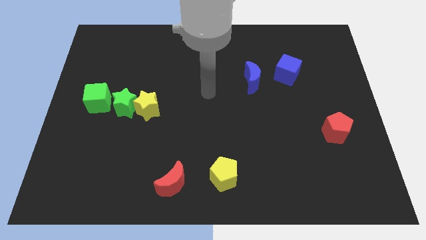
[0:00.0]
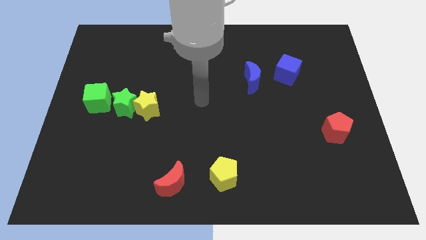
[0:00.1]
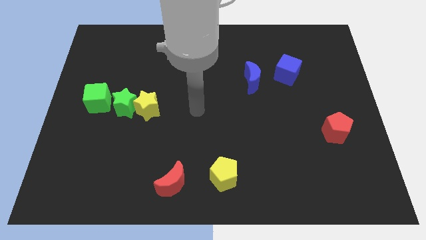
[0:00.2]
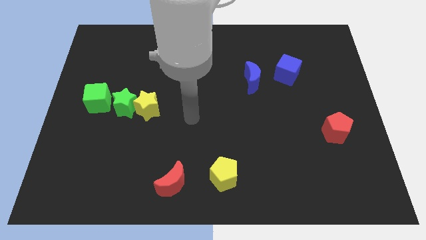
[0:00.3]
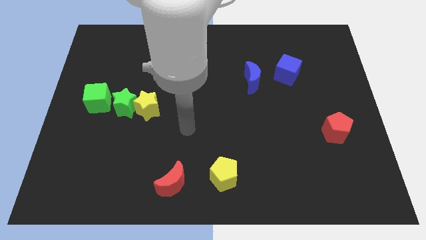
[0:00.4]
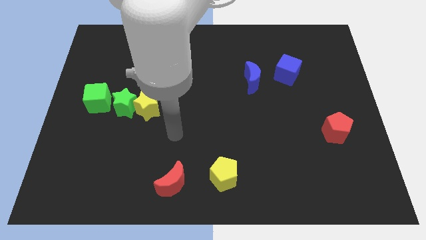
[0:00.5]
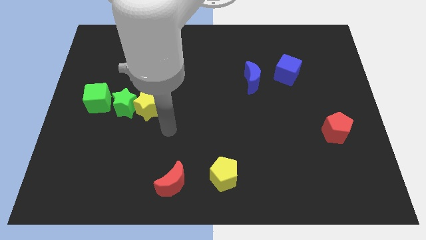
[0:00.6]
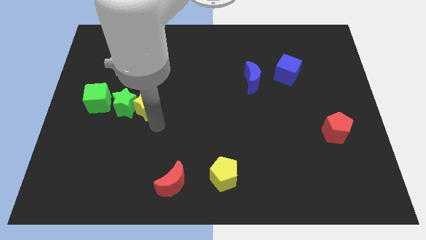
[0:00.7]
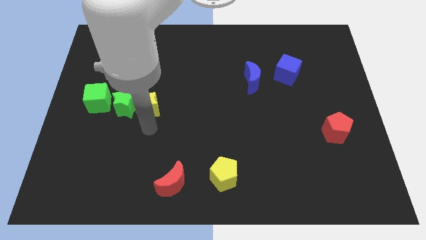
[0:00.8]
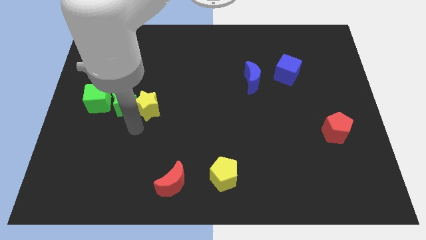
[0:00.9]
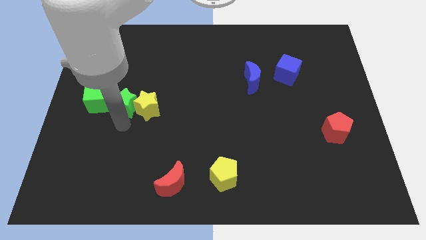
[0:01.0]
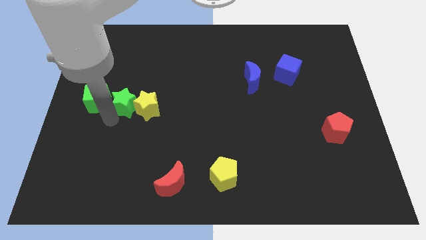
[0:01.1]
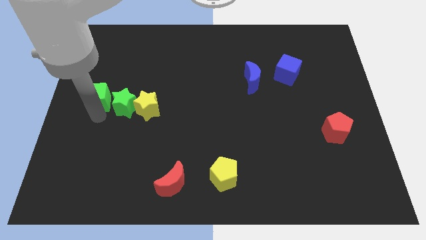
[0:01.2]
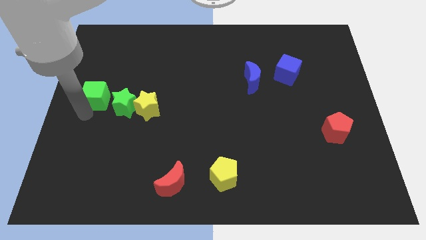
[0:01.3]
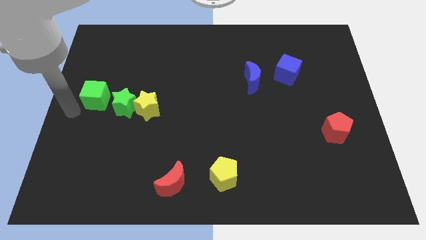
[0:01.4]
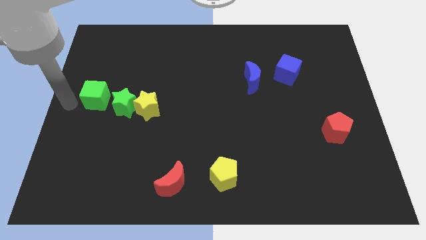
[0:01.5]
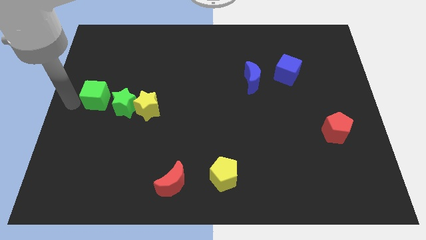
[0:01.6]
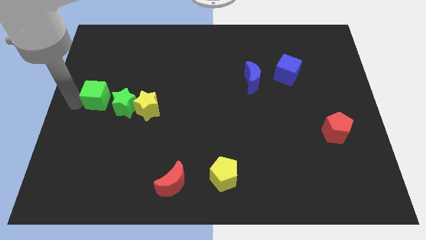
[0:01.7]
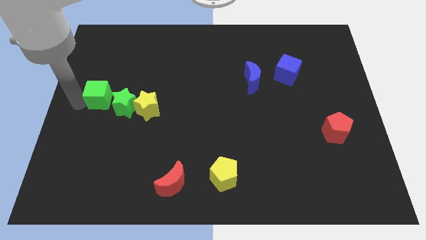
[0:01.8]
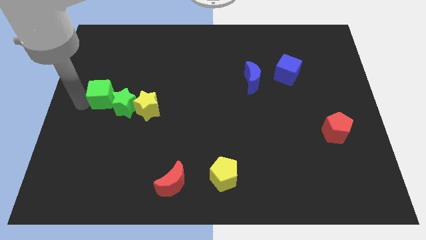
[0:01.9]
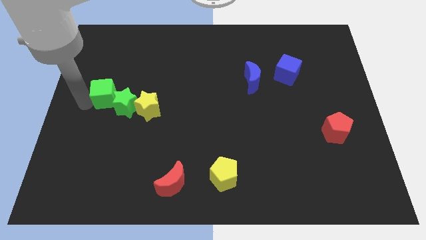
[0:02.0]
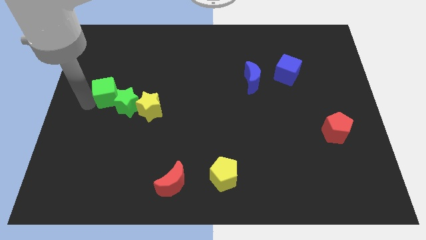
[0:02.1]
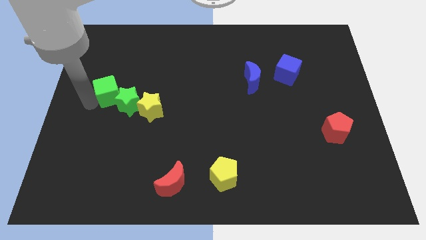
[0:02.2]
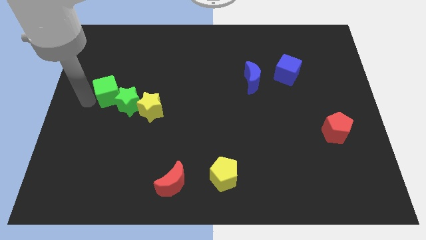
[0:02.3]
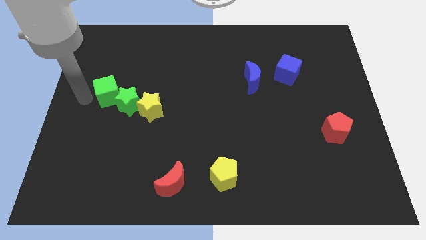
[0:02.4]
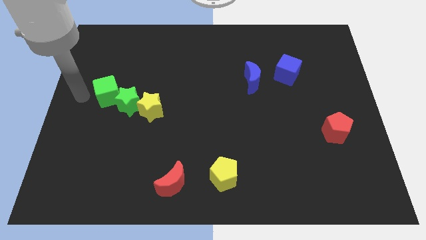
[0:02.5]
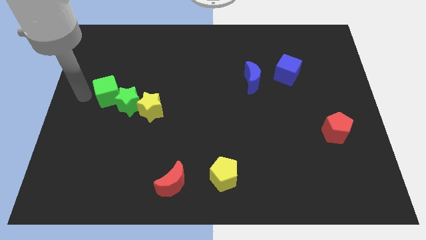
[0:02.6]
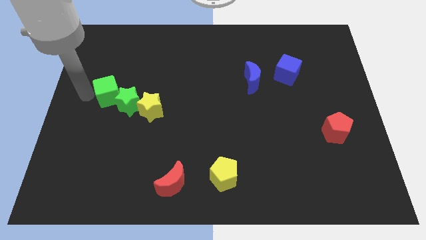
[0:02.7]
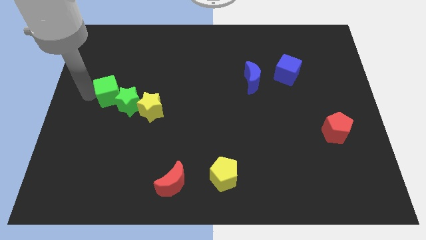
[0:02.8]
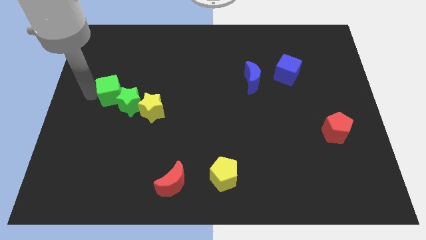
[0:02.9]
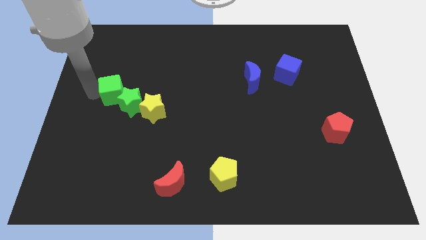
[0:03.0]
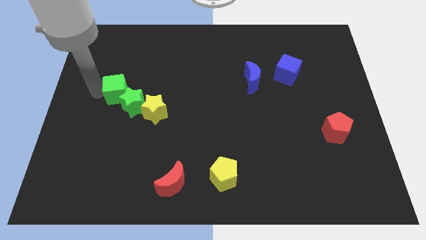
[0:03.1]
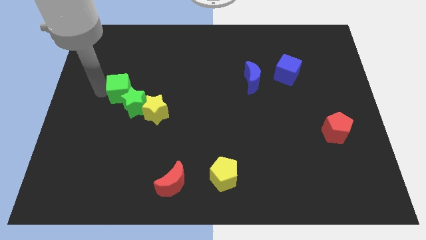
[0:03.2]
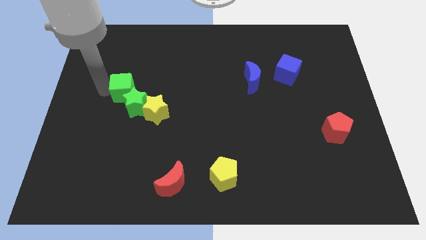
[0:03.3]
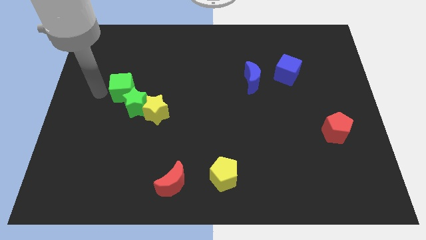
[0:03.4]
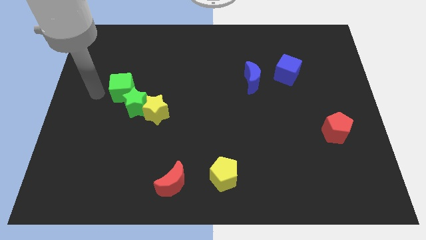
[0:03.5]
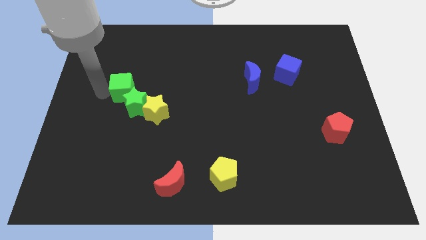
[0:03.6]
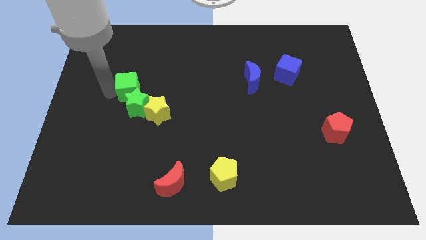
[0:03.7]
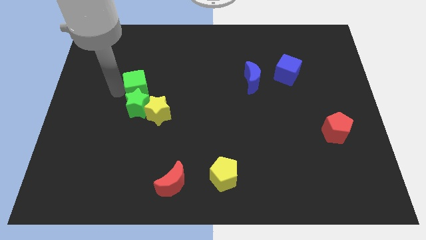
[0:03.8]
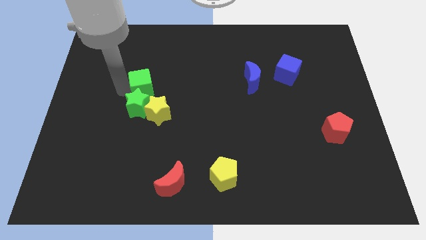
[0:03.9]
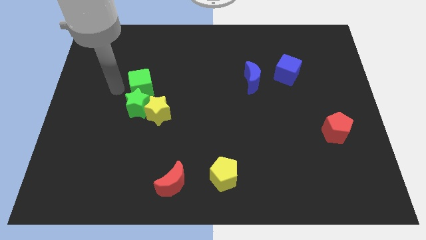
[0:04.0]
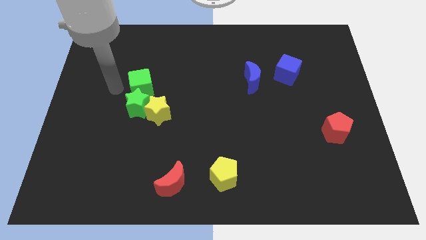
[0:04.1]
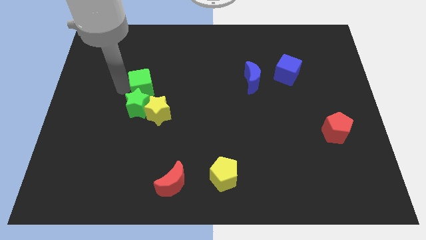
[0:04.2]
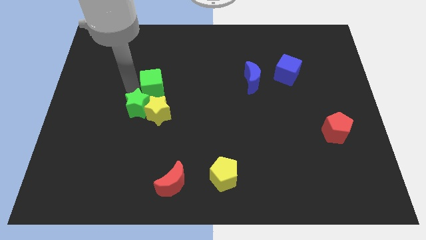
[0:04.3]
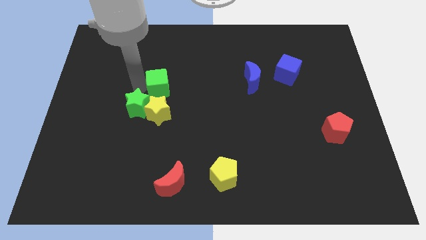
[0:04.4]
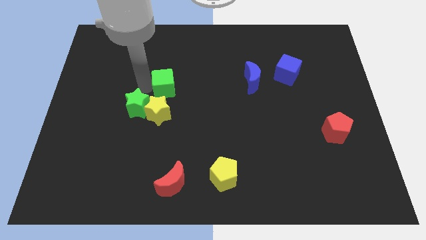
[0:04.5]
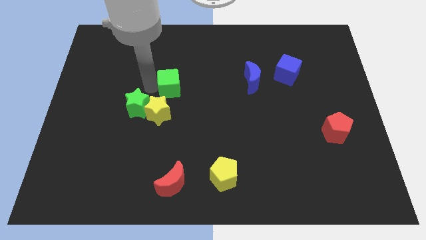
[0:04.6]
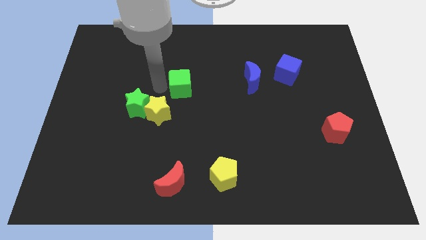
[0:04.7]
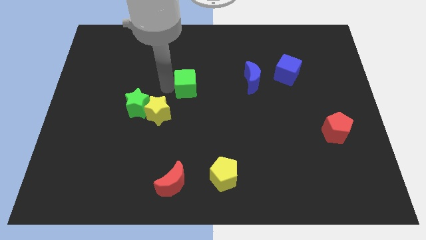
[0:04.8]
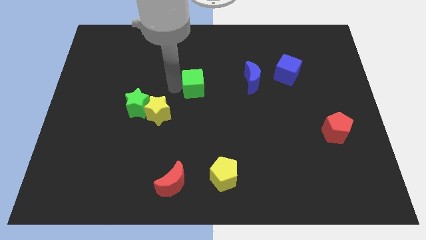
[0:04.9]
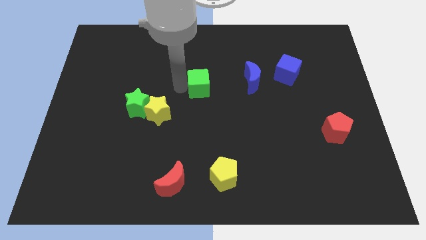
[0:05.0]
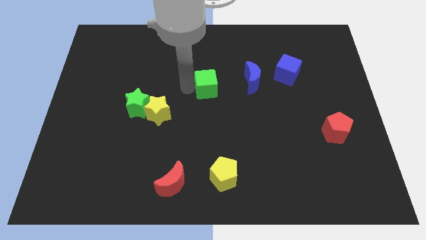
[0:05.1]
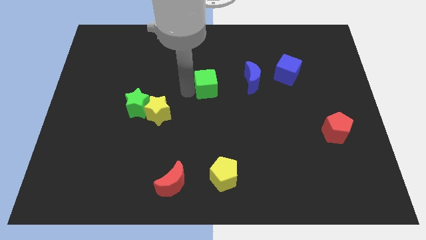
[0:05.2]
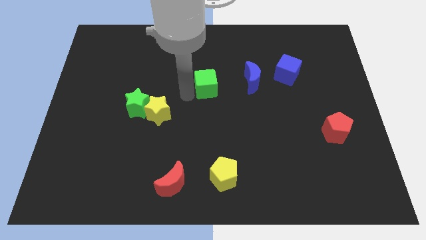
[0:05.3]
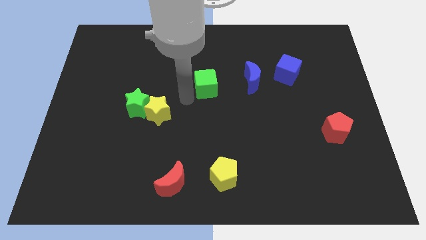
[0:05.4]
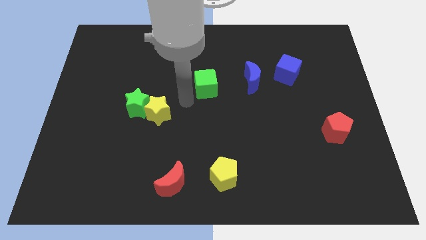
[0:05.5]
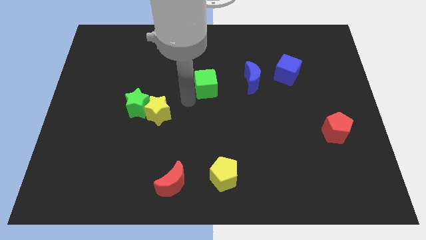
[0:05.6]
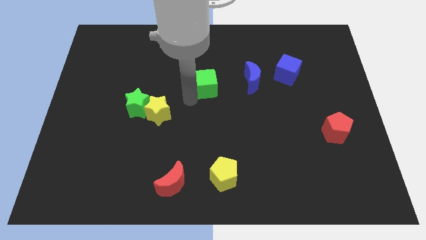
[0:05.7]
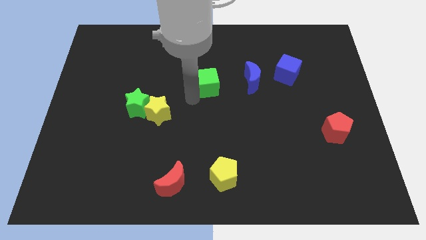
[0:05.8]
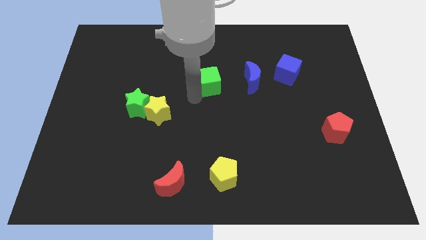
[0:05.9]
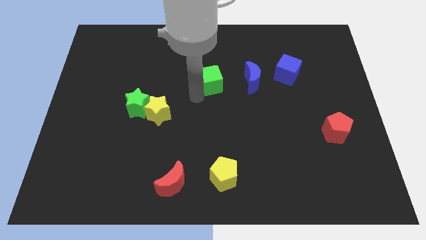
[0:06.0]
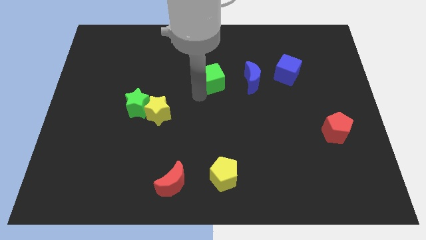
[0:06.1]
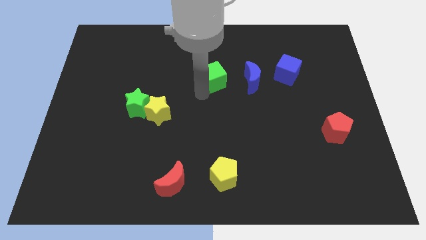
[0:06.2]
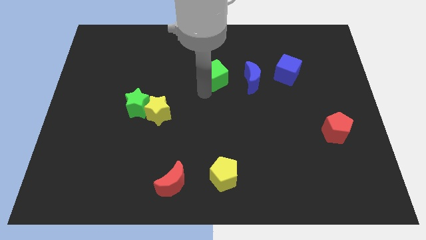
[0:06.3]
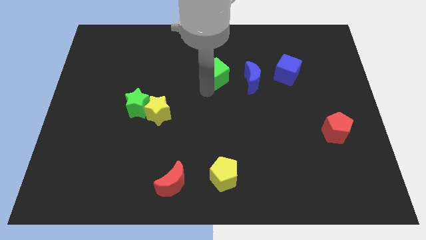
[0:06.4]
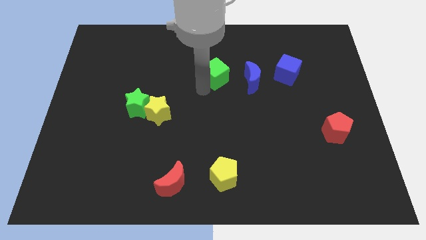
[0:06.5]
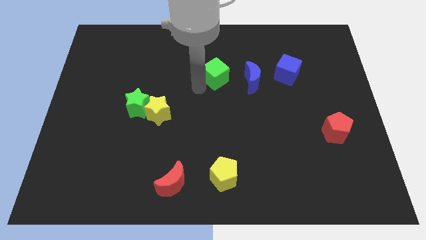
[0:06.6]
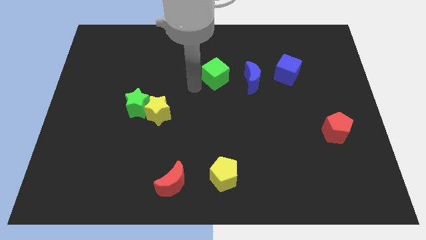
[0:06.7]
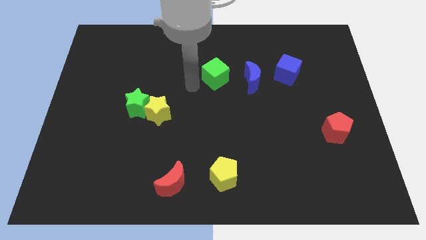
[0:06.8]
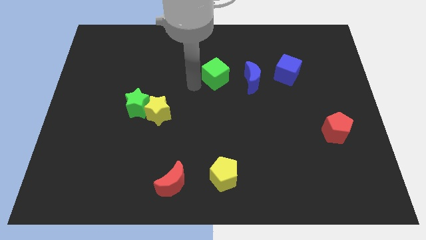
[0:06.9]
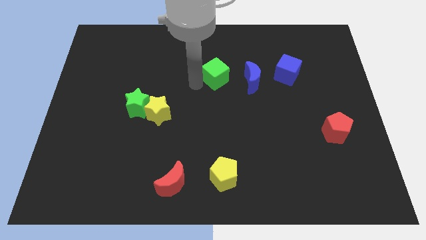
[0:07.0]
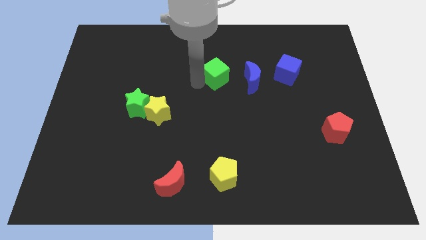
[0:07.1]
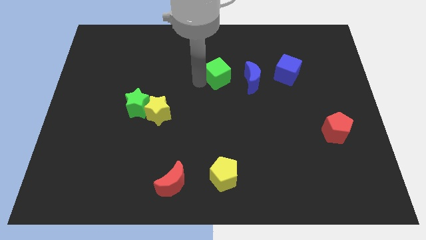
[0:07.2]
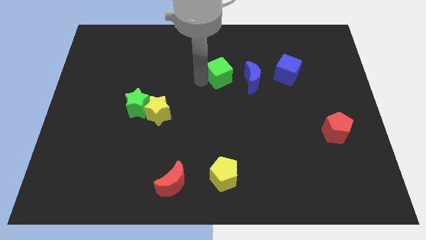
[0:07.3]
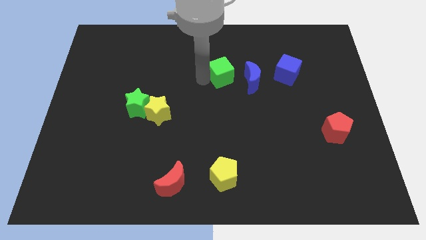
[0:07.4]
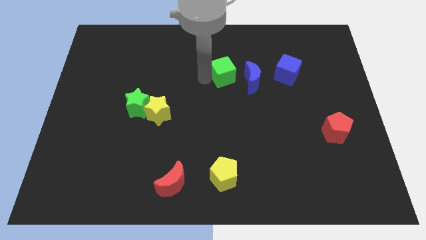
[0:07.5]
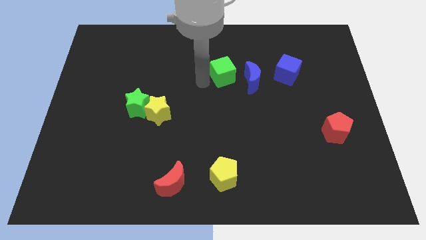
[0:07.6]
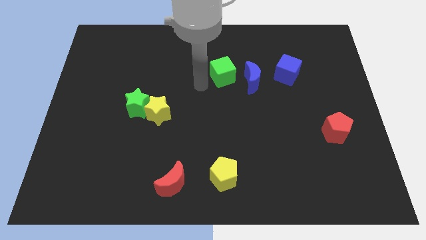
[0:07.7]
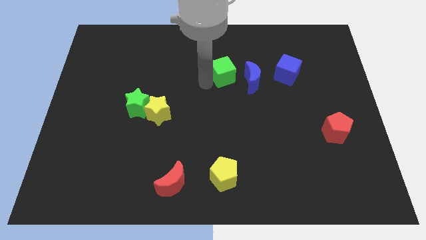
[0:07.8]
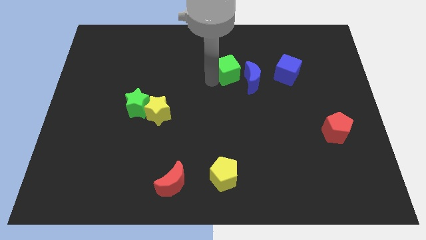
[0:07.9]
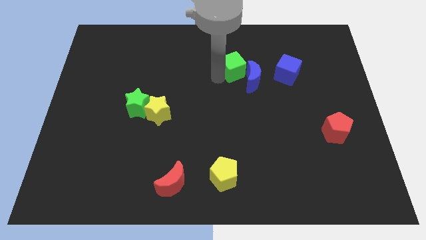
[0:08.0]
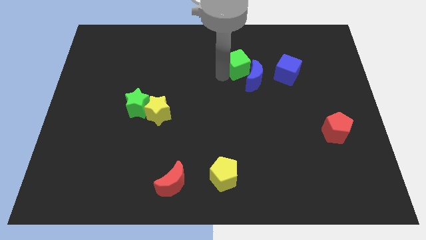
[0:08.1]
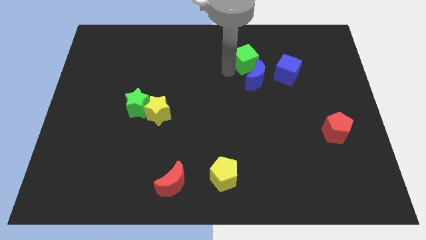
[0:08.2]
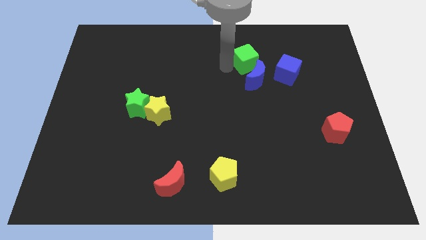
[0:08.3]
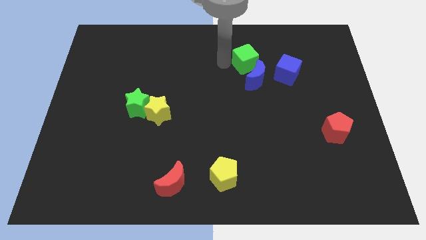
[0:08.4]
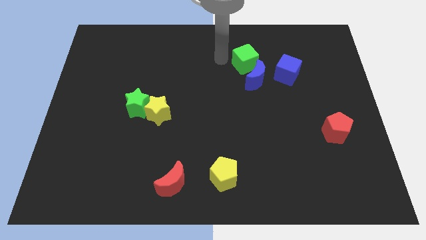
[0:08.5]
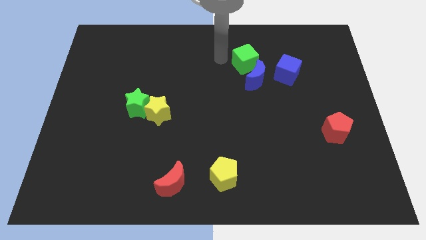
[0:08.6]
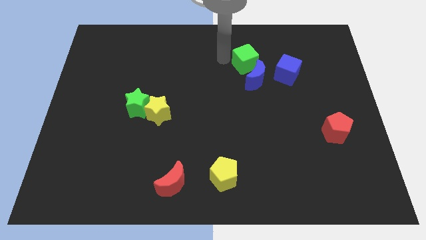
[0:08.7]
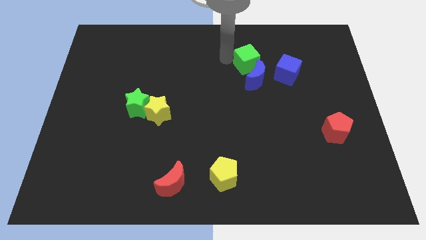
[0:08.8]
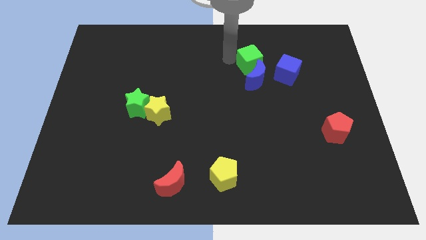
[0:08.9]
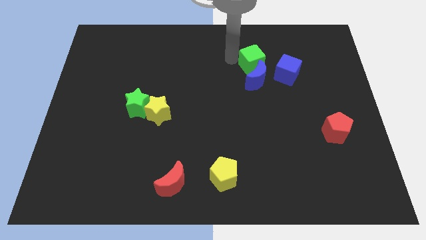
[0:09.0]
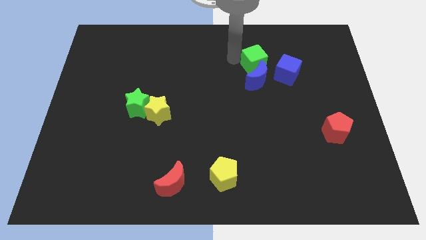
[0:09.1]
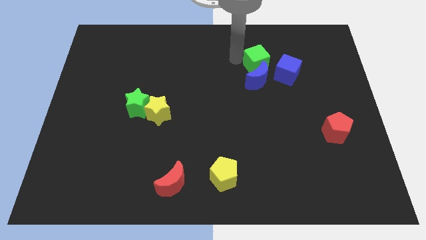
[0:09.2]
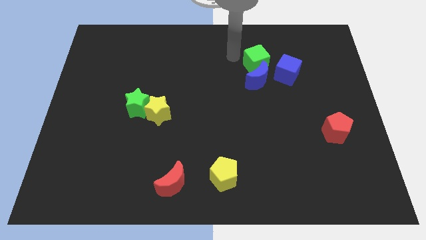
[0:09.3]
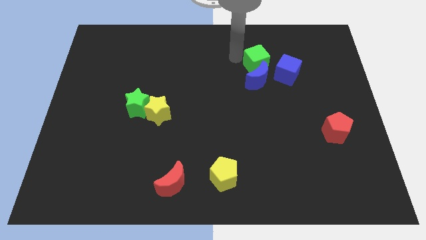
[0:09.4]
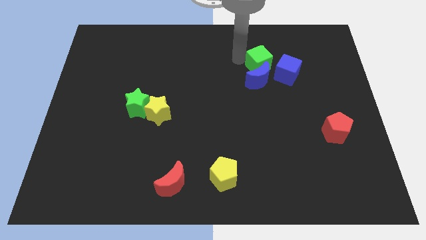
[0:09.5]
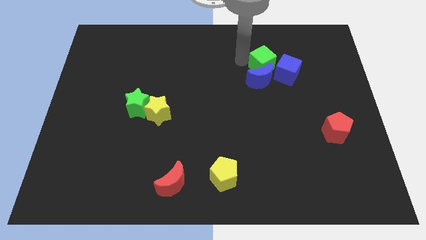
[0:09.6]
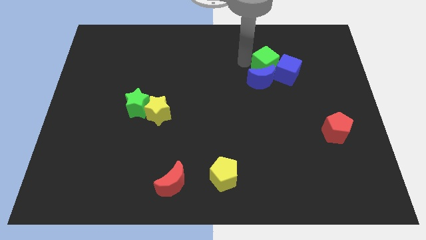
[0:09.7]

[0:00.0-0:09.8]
slide the green cube close to the blue cube
